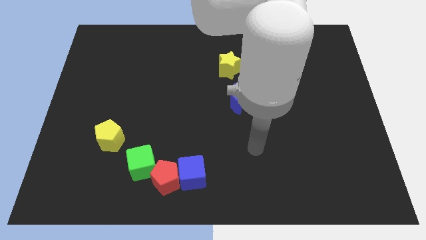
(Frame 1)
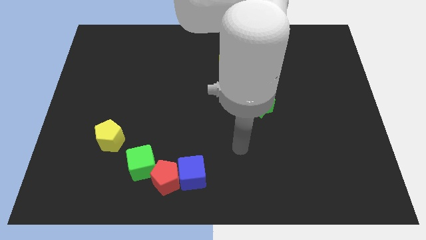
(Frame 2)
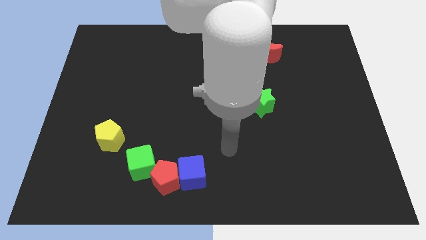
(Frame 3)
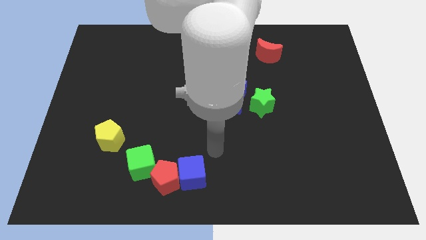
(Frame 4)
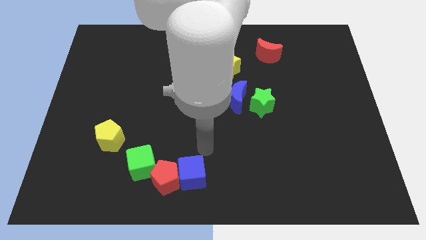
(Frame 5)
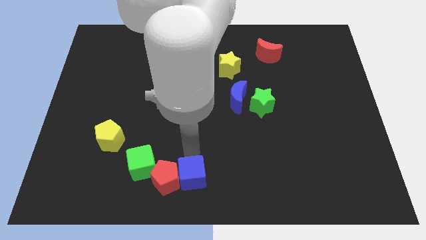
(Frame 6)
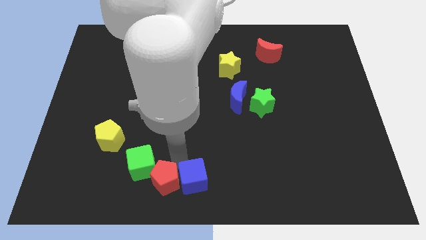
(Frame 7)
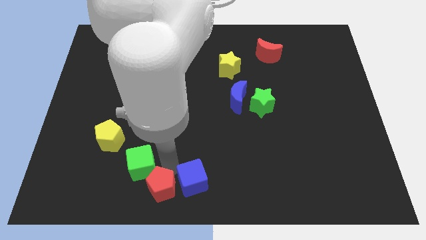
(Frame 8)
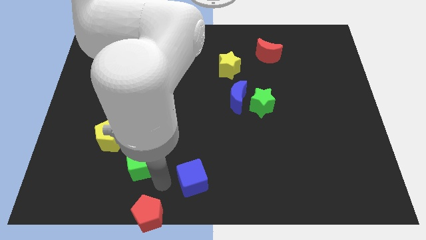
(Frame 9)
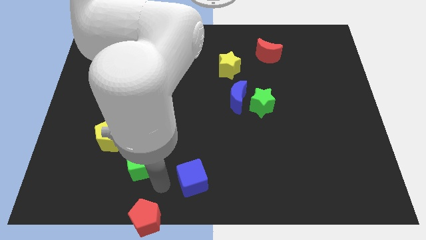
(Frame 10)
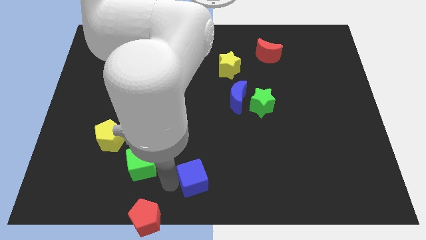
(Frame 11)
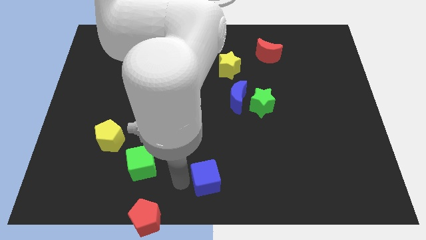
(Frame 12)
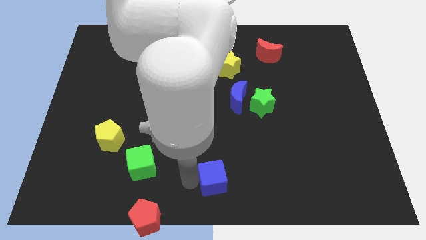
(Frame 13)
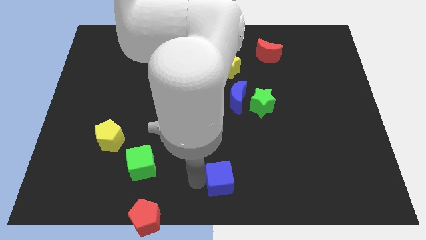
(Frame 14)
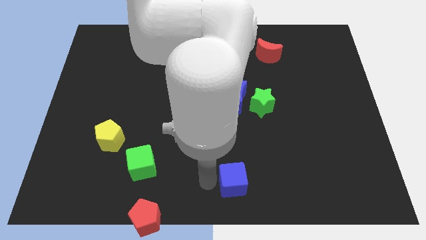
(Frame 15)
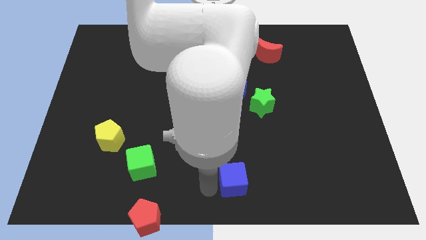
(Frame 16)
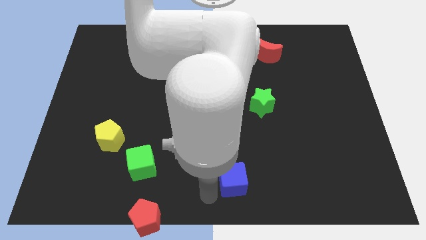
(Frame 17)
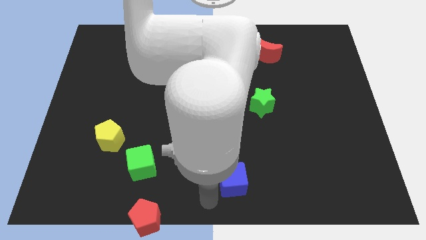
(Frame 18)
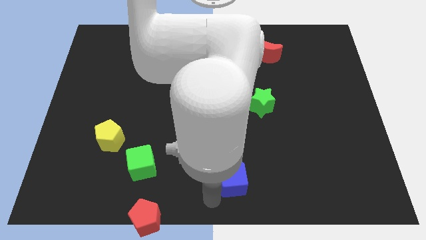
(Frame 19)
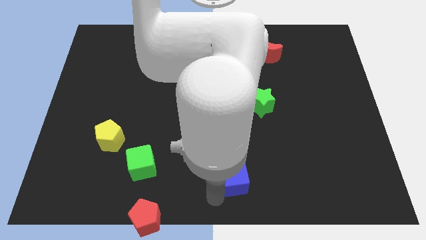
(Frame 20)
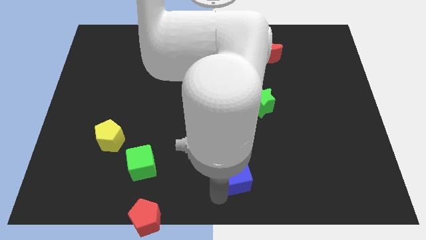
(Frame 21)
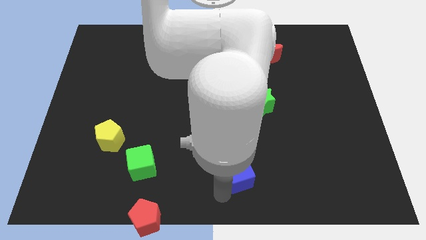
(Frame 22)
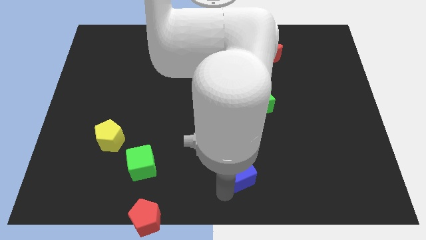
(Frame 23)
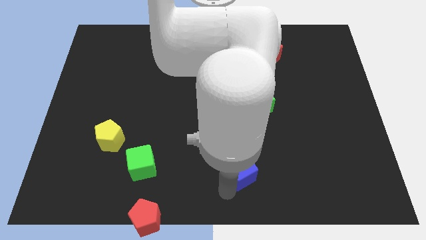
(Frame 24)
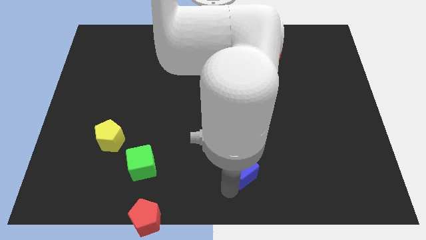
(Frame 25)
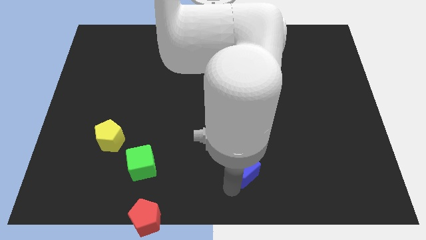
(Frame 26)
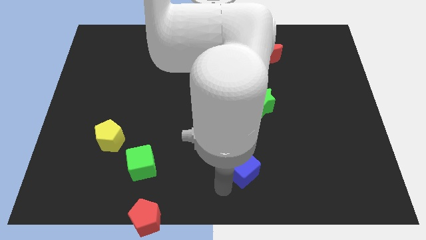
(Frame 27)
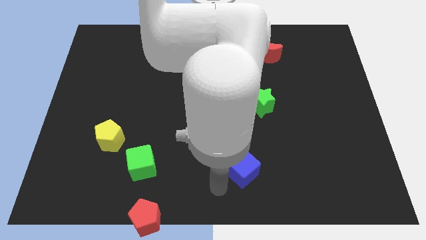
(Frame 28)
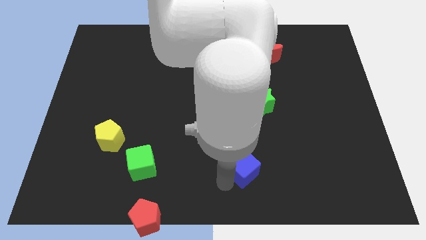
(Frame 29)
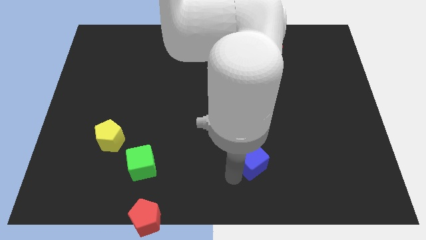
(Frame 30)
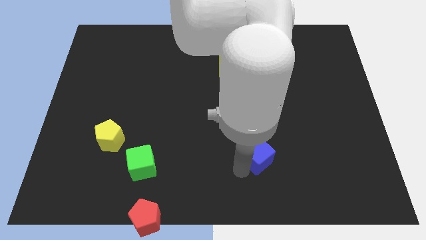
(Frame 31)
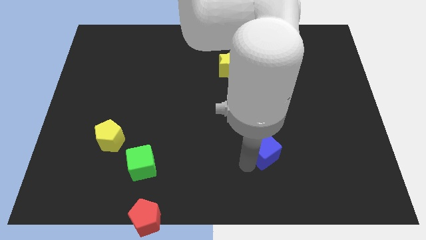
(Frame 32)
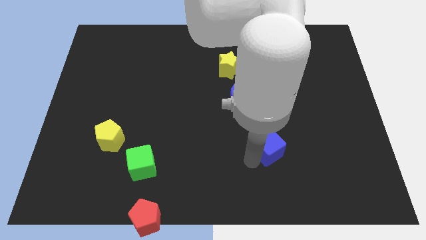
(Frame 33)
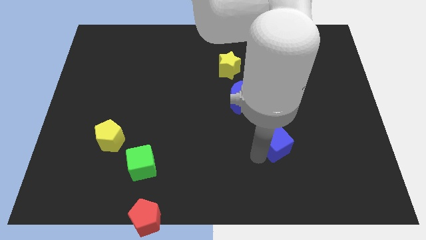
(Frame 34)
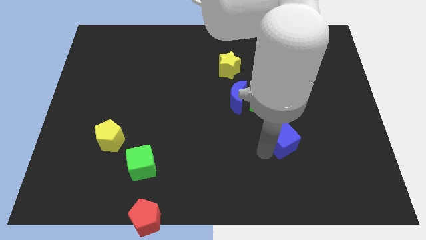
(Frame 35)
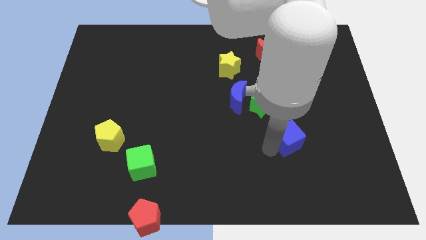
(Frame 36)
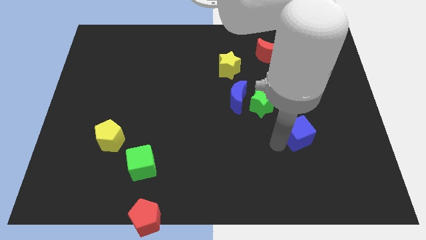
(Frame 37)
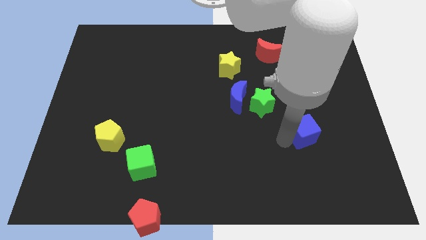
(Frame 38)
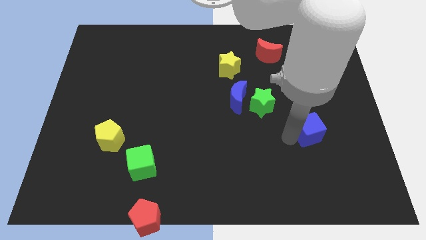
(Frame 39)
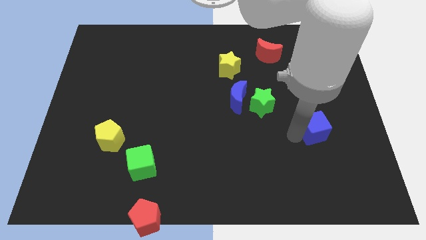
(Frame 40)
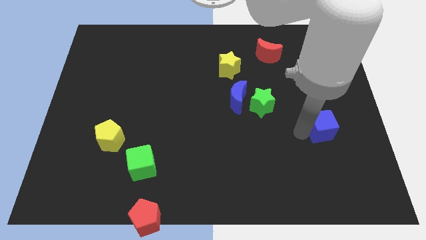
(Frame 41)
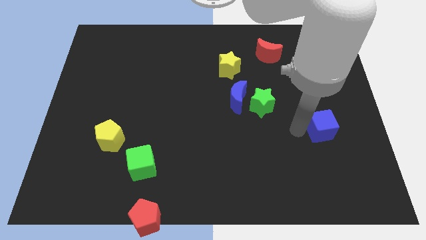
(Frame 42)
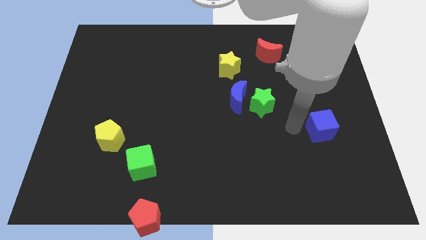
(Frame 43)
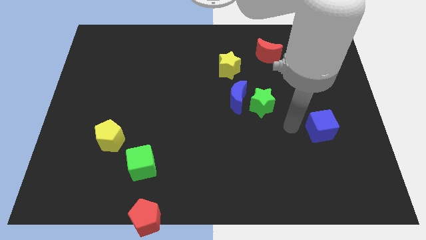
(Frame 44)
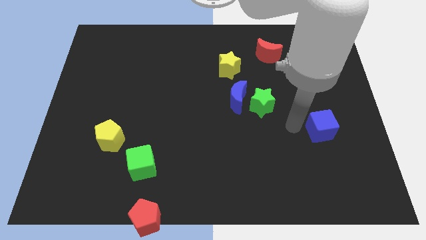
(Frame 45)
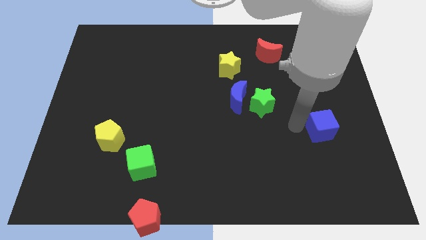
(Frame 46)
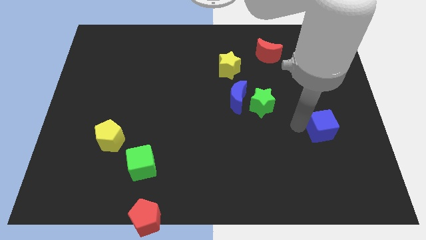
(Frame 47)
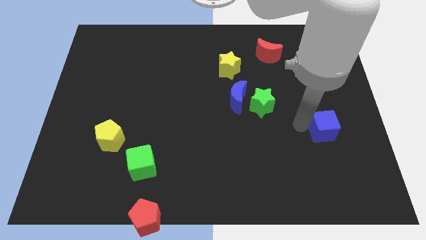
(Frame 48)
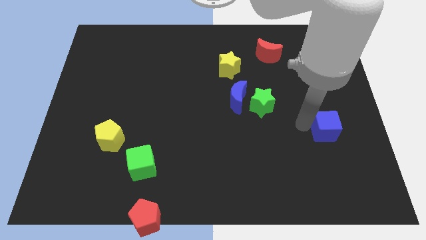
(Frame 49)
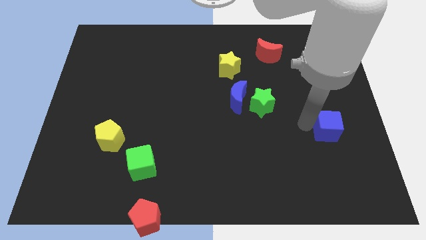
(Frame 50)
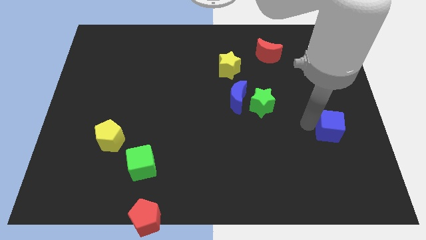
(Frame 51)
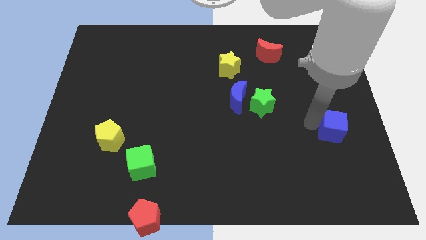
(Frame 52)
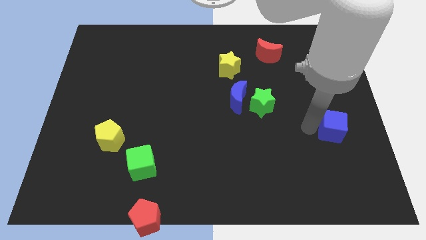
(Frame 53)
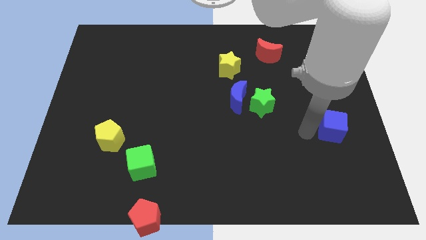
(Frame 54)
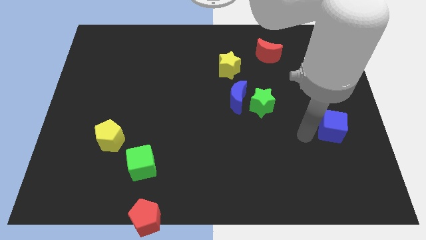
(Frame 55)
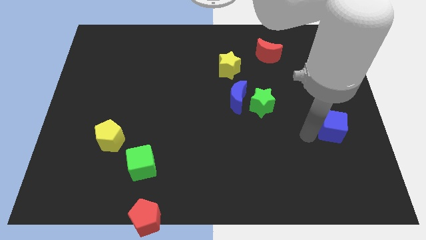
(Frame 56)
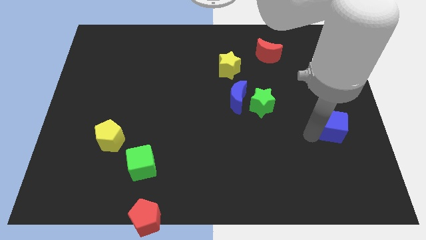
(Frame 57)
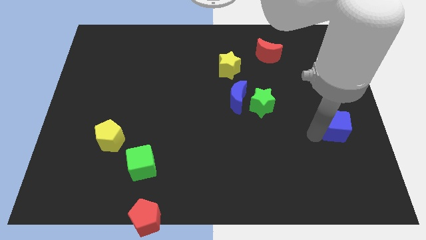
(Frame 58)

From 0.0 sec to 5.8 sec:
move the blue cube to the right side
